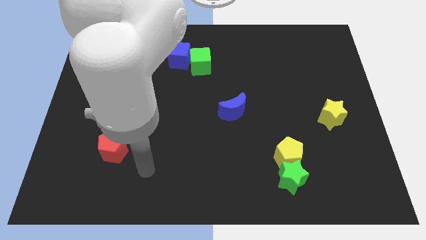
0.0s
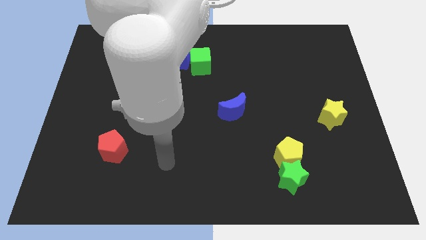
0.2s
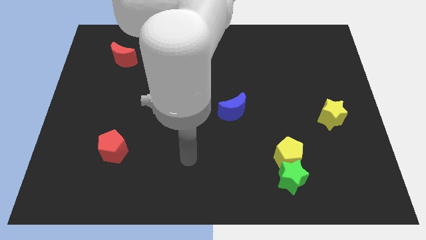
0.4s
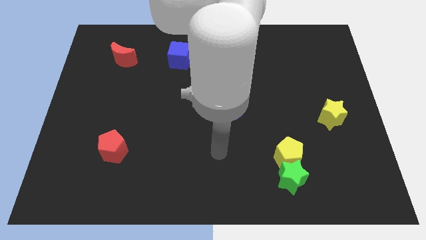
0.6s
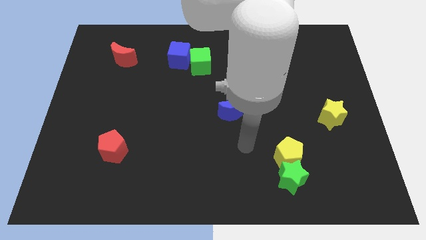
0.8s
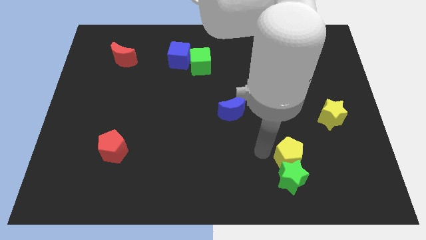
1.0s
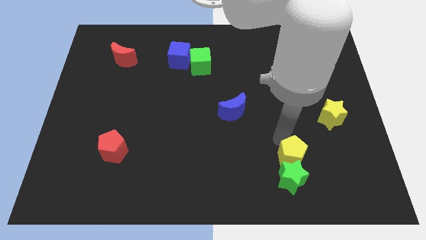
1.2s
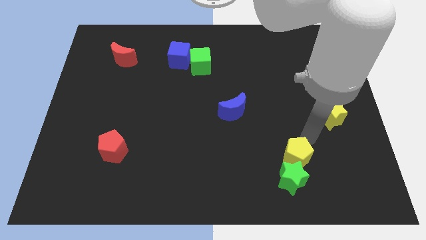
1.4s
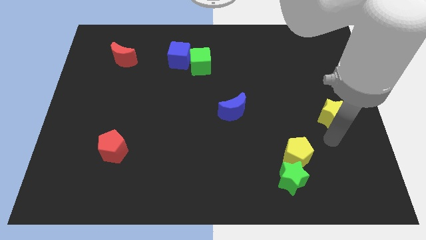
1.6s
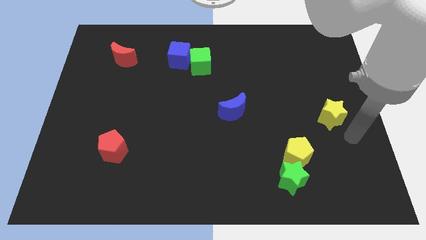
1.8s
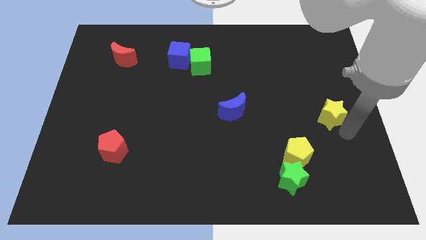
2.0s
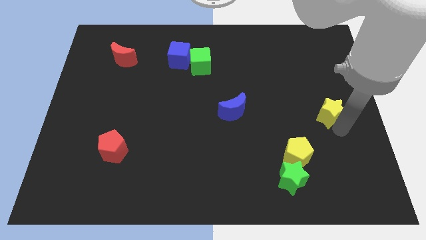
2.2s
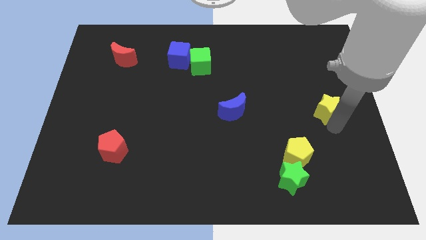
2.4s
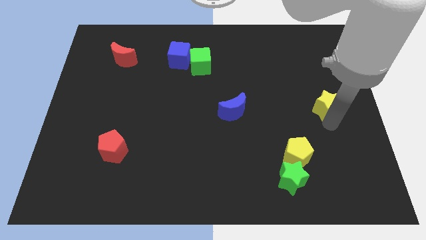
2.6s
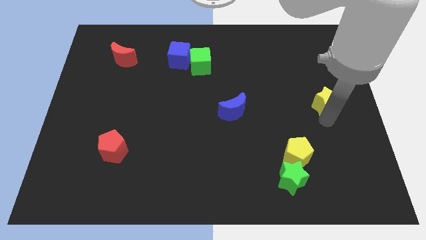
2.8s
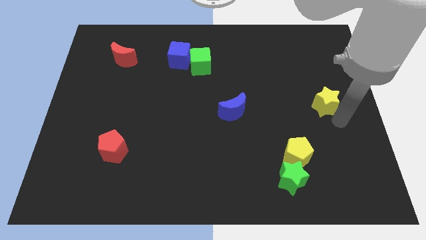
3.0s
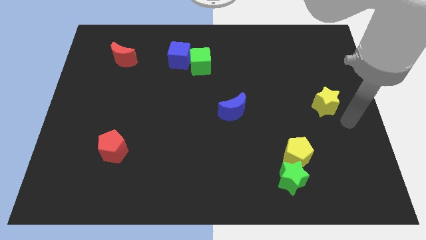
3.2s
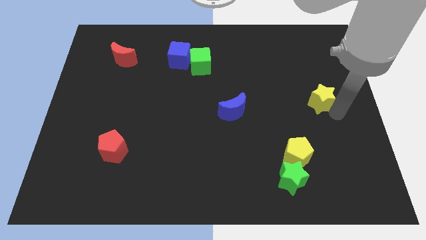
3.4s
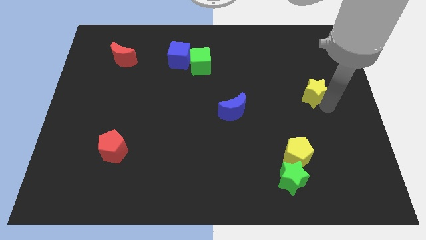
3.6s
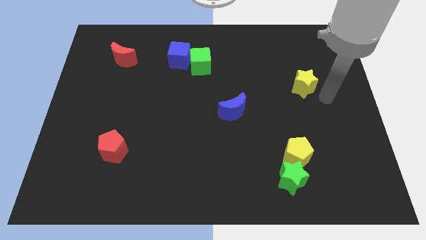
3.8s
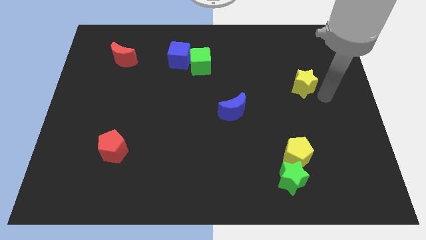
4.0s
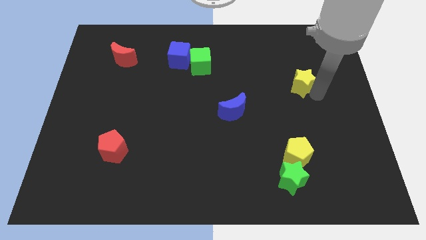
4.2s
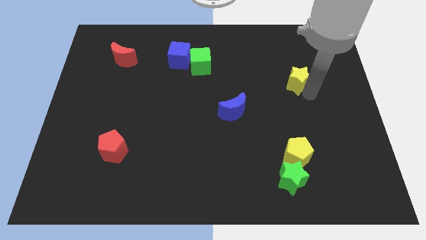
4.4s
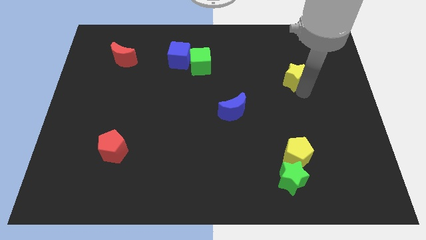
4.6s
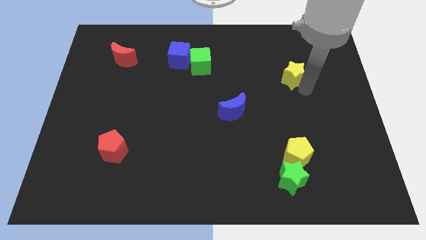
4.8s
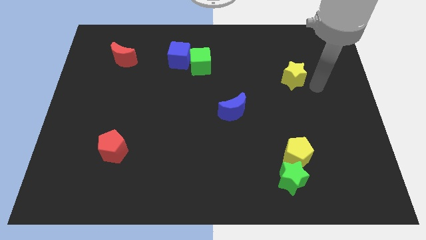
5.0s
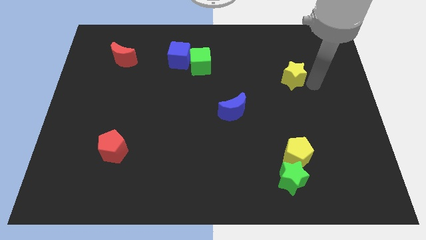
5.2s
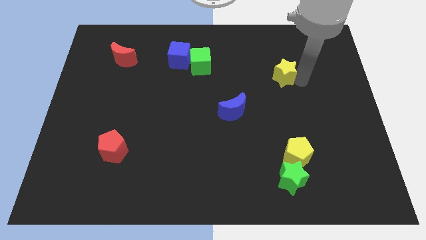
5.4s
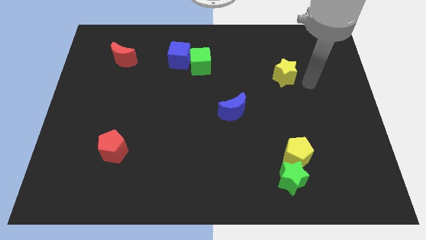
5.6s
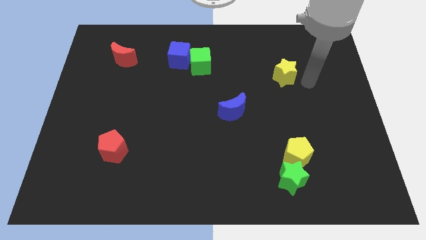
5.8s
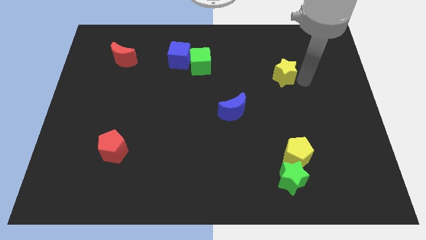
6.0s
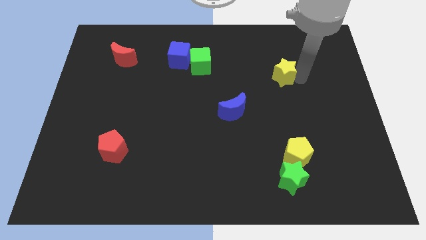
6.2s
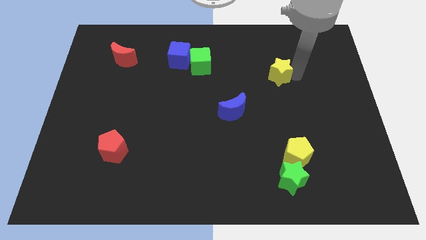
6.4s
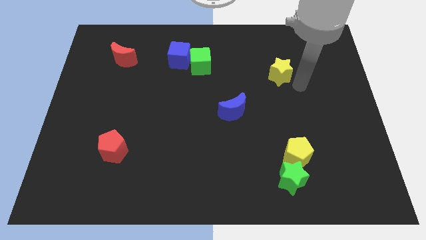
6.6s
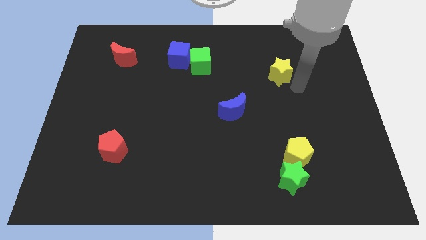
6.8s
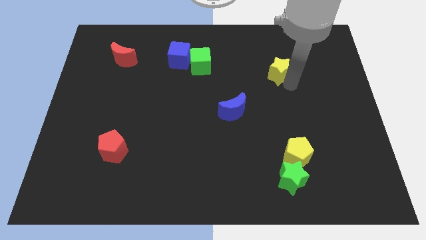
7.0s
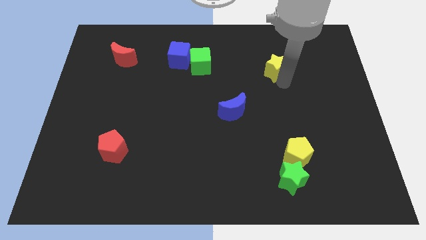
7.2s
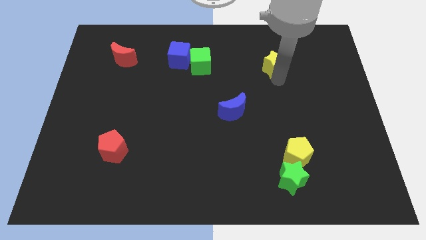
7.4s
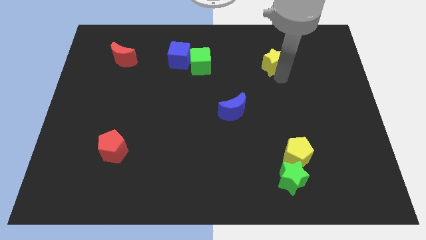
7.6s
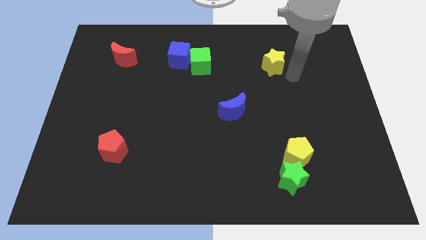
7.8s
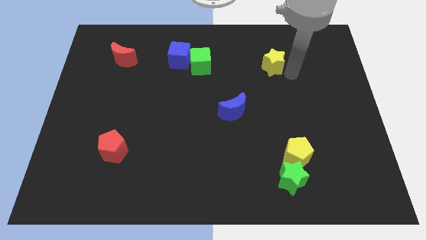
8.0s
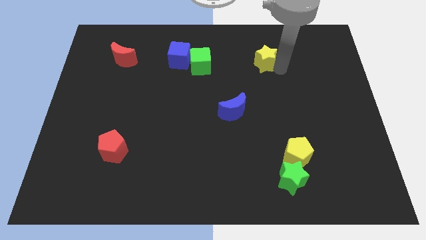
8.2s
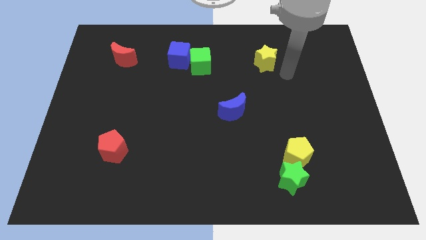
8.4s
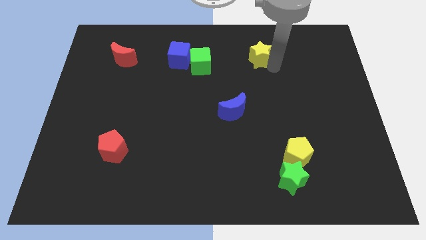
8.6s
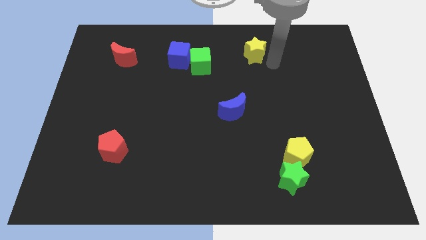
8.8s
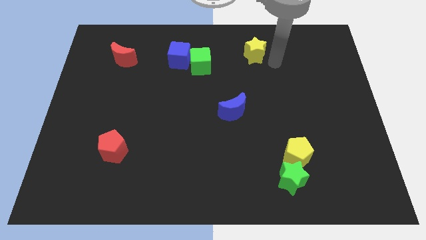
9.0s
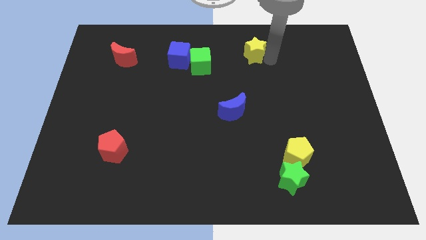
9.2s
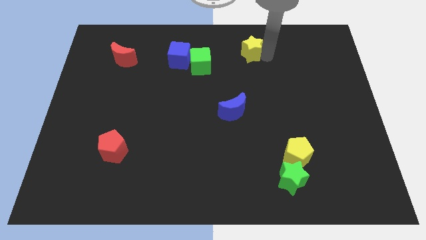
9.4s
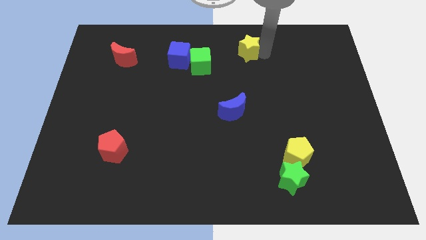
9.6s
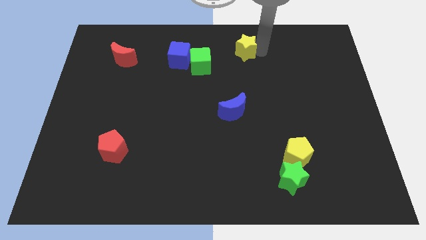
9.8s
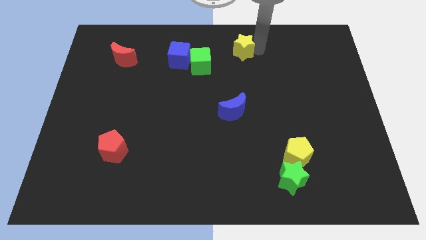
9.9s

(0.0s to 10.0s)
put the yellow star to the top side

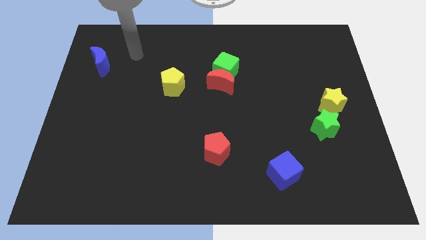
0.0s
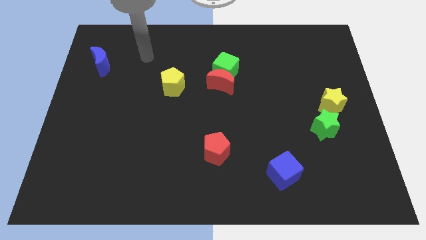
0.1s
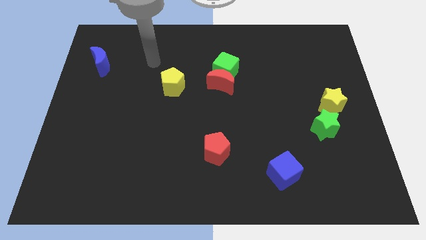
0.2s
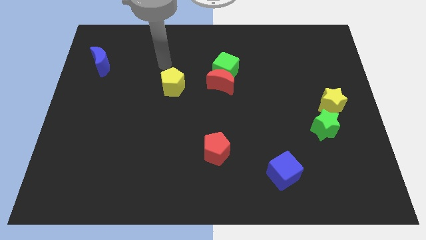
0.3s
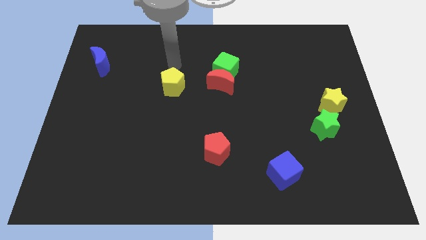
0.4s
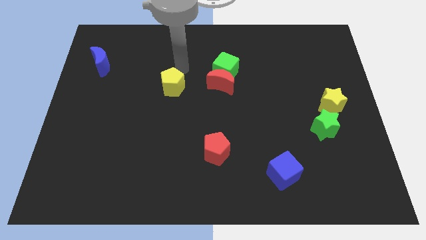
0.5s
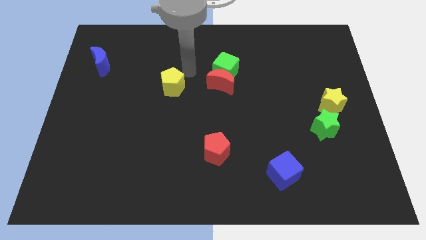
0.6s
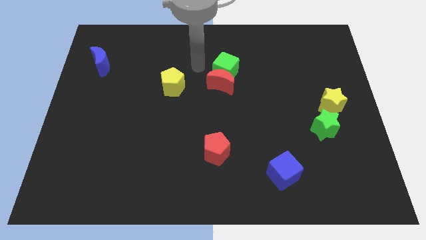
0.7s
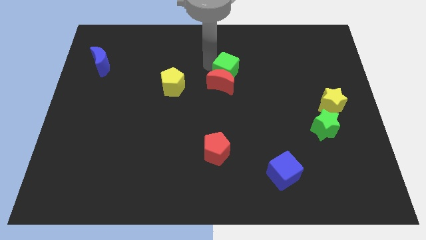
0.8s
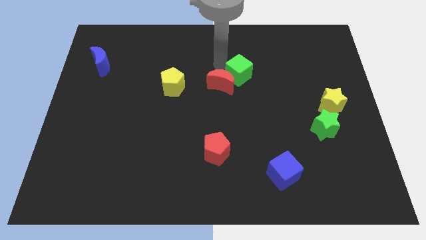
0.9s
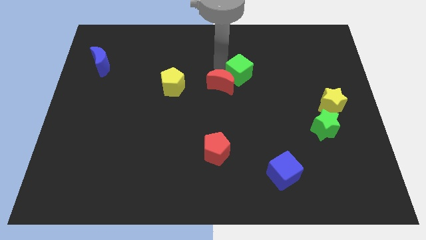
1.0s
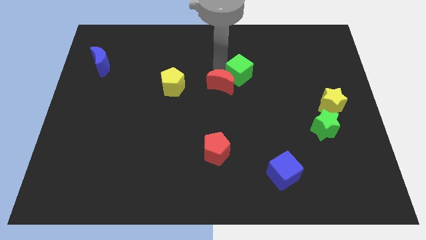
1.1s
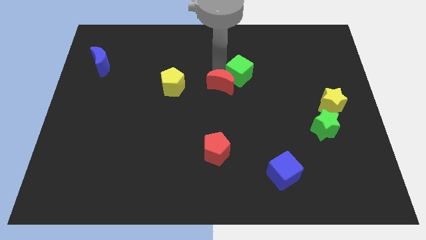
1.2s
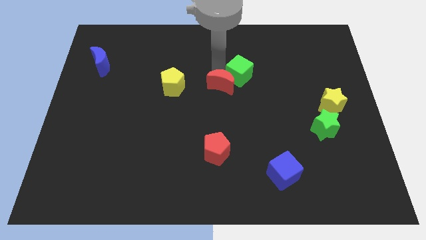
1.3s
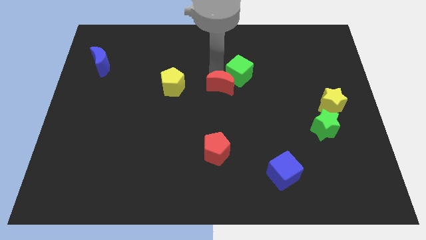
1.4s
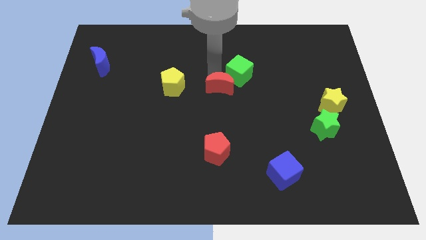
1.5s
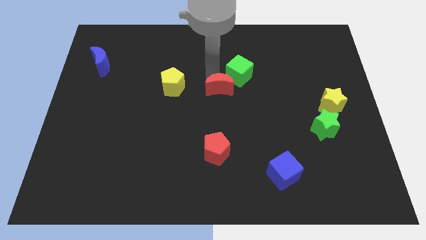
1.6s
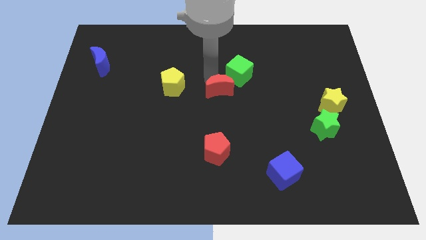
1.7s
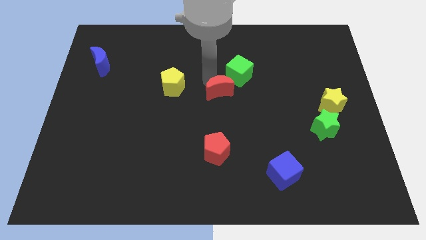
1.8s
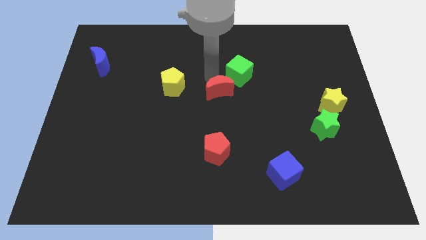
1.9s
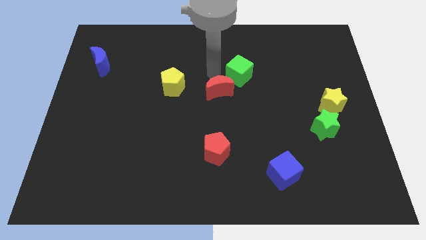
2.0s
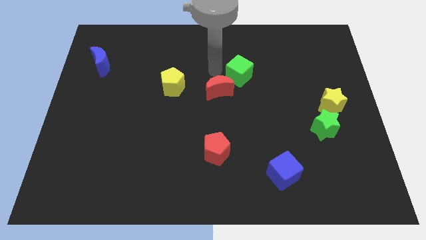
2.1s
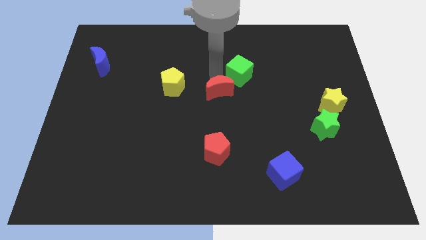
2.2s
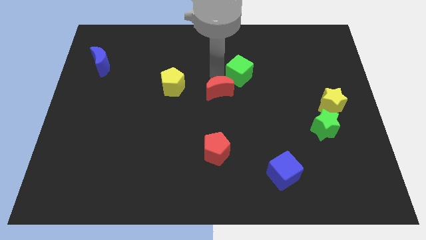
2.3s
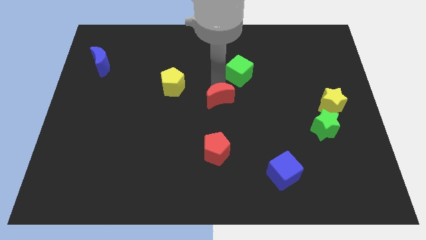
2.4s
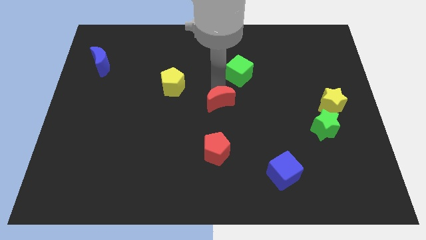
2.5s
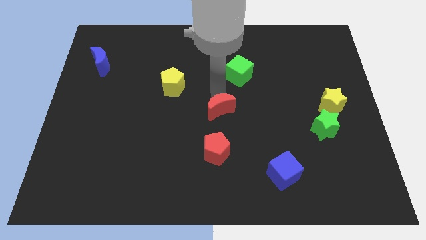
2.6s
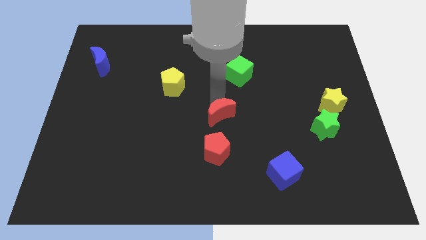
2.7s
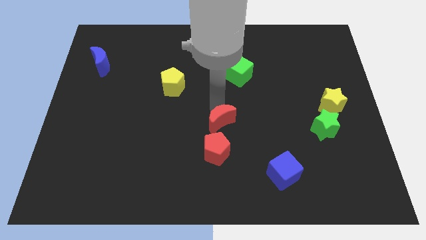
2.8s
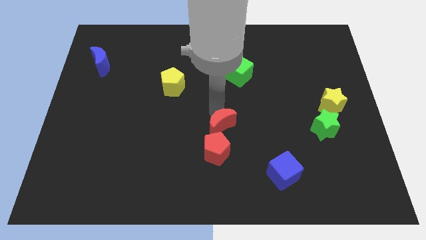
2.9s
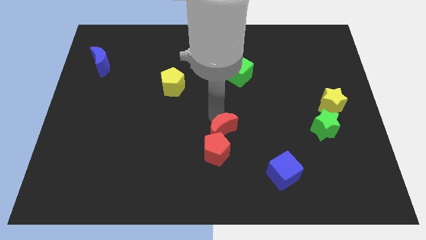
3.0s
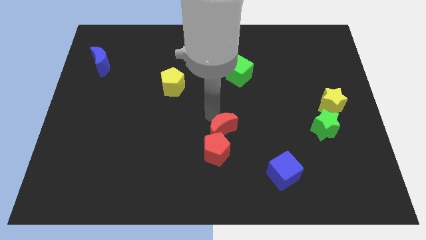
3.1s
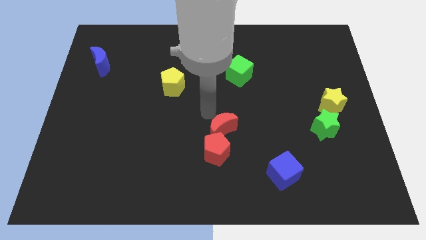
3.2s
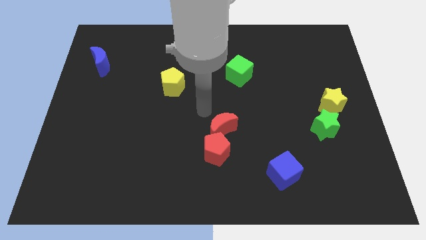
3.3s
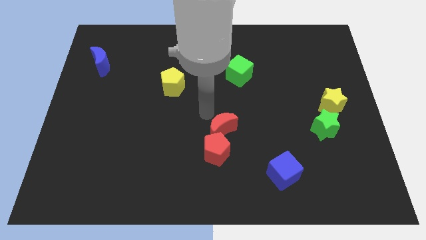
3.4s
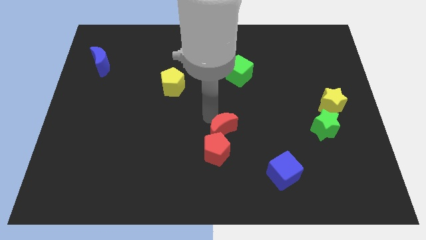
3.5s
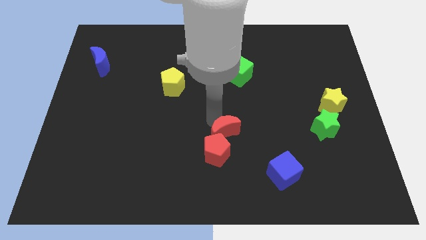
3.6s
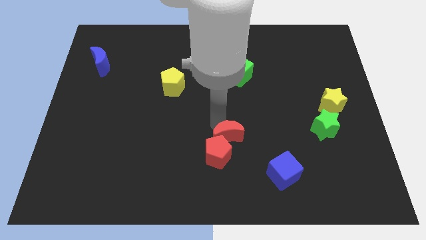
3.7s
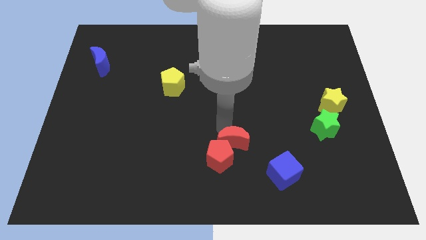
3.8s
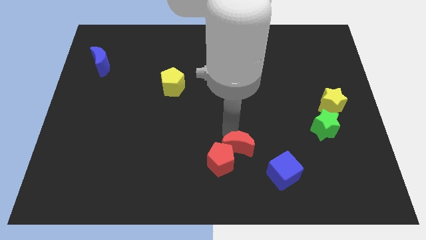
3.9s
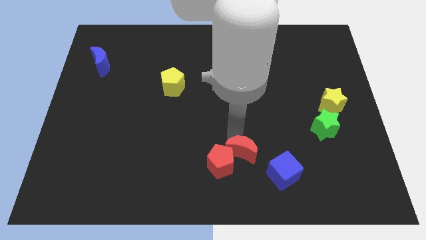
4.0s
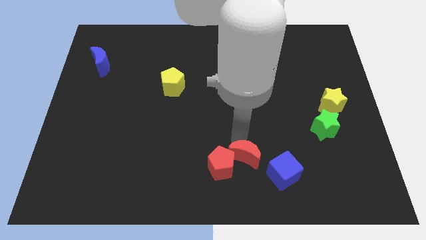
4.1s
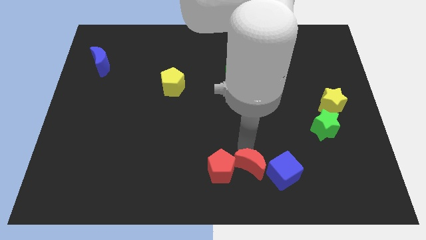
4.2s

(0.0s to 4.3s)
move the red moon to the bottom
